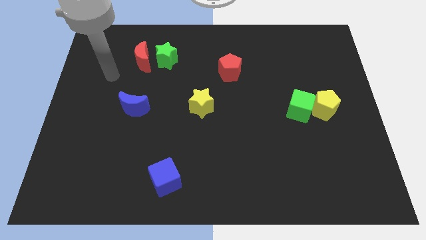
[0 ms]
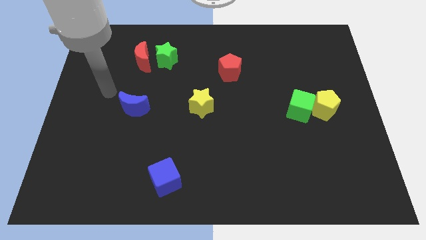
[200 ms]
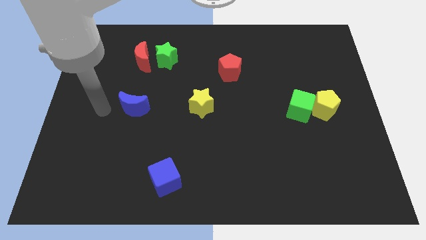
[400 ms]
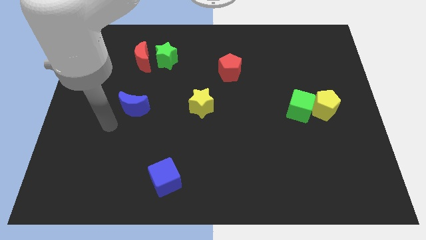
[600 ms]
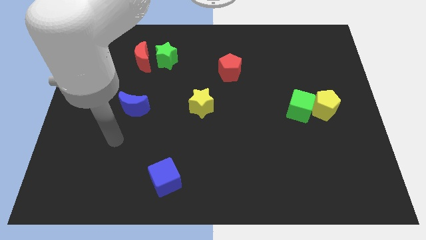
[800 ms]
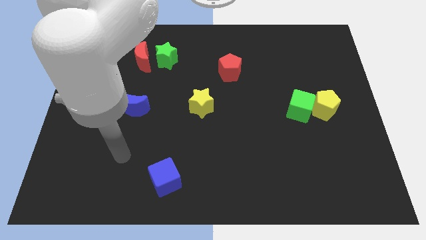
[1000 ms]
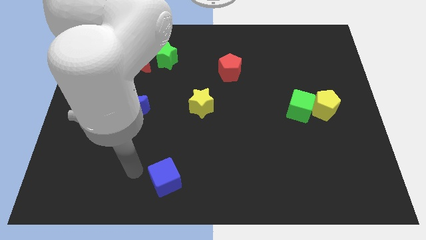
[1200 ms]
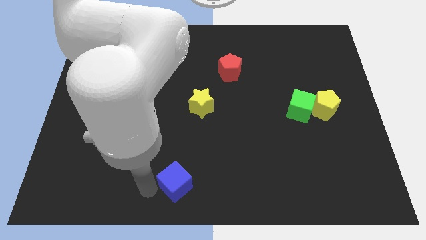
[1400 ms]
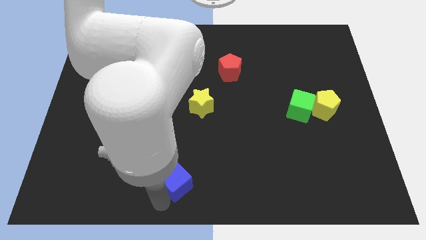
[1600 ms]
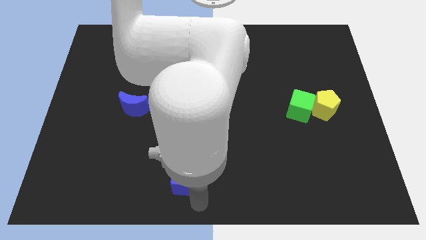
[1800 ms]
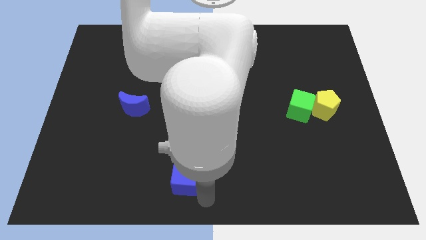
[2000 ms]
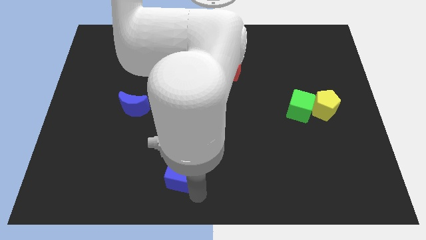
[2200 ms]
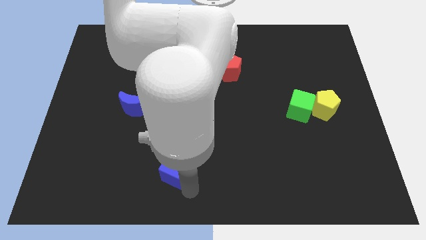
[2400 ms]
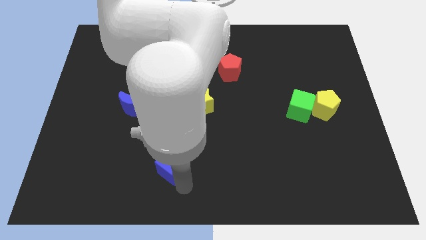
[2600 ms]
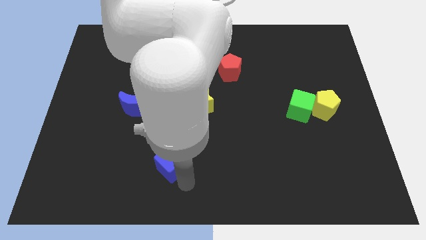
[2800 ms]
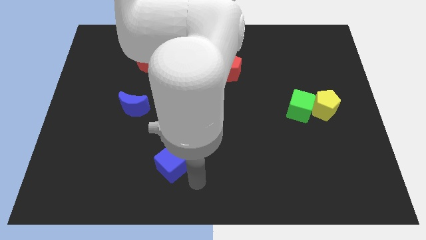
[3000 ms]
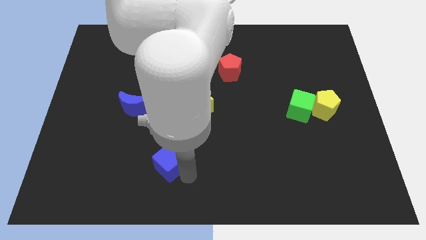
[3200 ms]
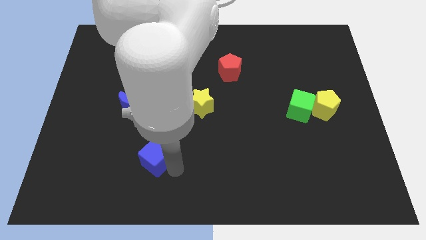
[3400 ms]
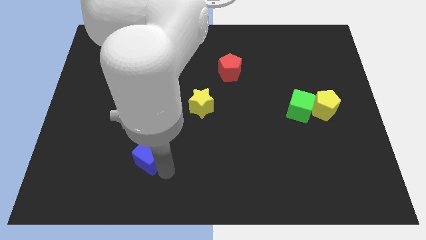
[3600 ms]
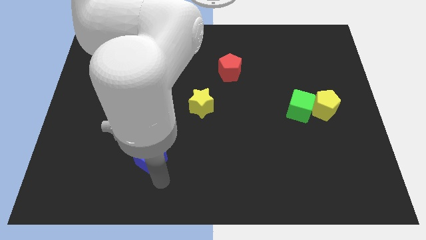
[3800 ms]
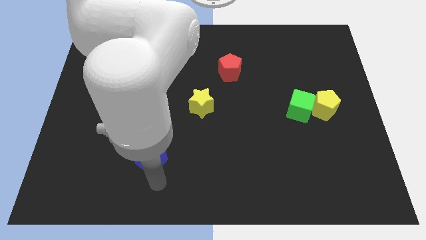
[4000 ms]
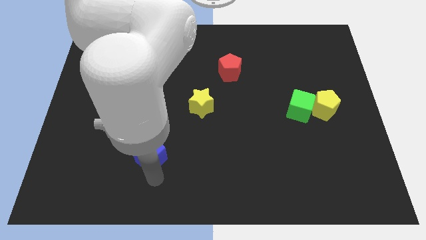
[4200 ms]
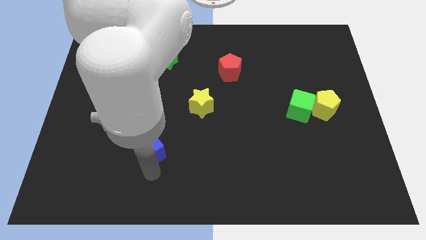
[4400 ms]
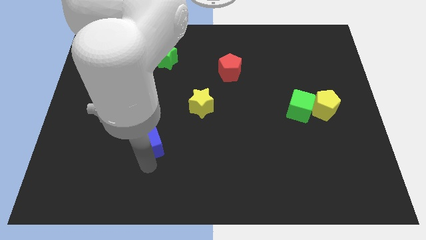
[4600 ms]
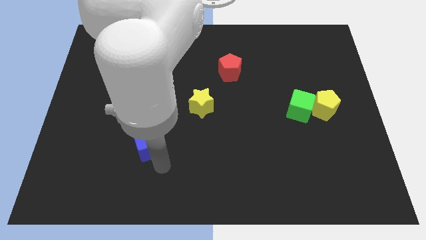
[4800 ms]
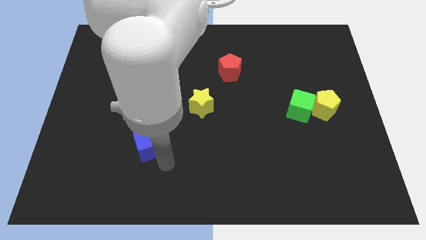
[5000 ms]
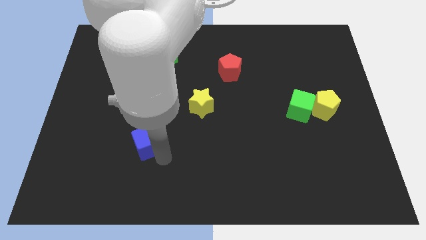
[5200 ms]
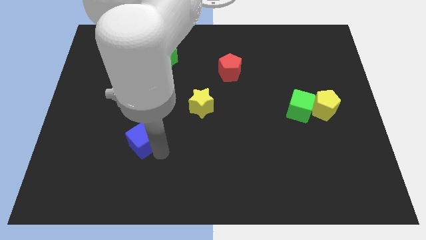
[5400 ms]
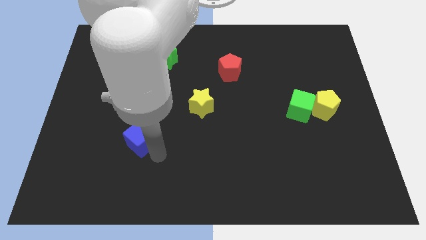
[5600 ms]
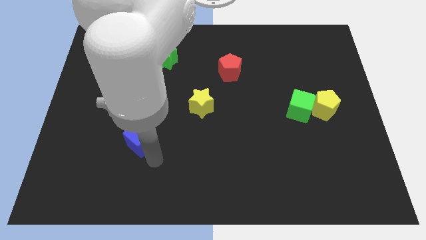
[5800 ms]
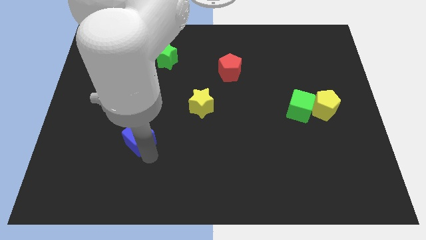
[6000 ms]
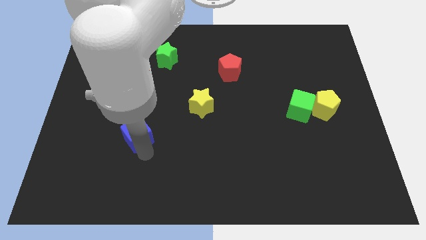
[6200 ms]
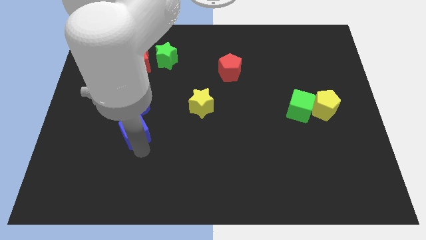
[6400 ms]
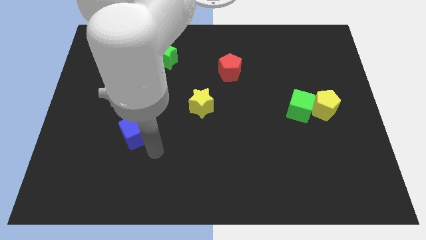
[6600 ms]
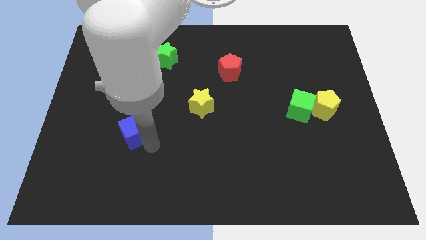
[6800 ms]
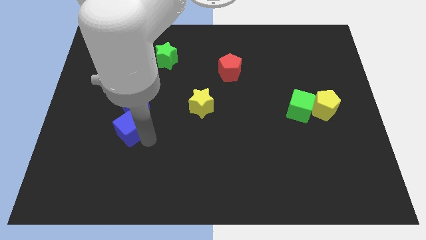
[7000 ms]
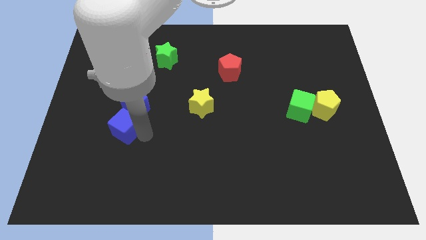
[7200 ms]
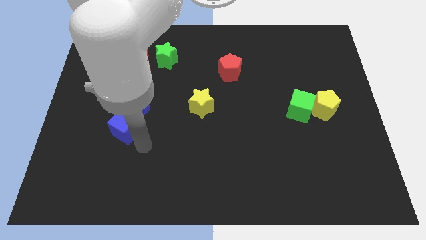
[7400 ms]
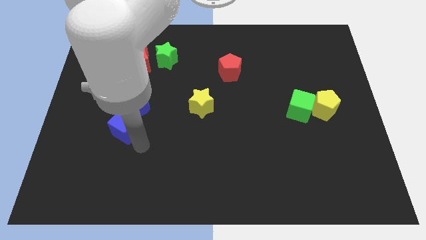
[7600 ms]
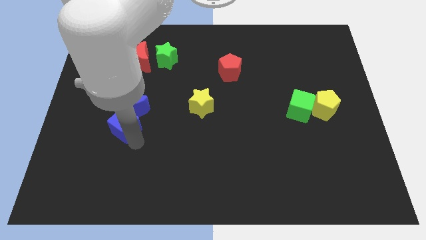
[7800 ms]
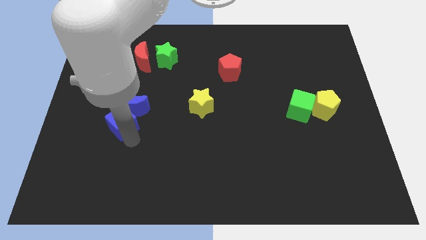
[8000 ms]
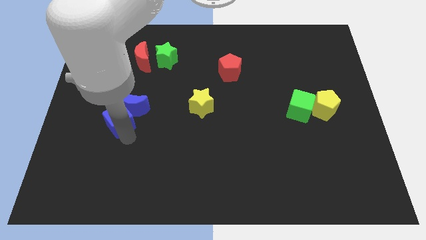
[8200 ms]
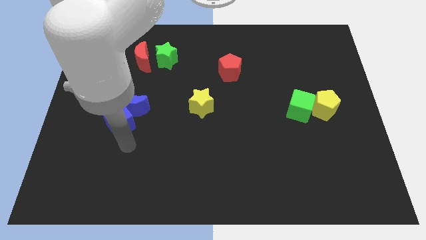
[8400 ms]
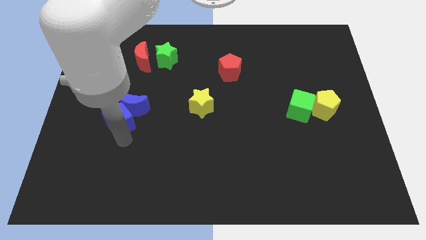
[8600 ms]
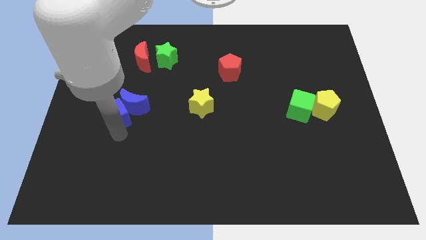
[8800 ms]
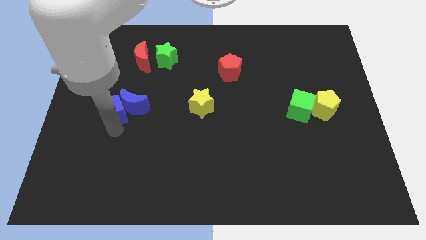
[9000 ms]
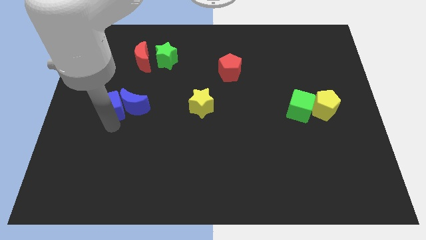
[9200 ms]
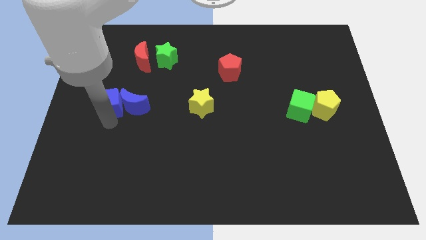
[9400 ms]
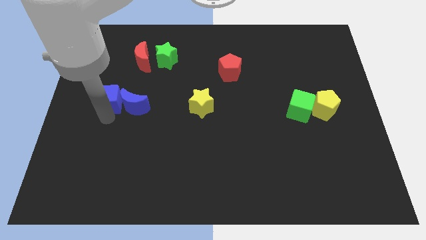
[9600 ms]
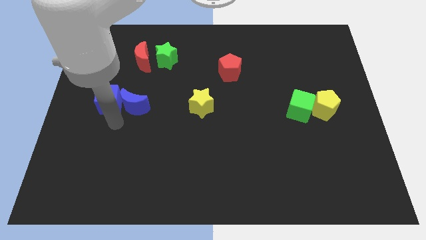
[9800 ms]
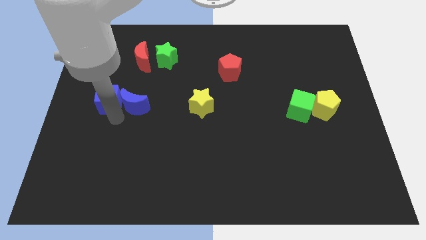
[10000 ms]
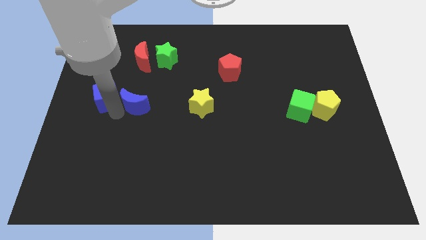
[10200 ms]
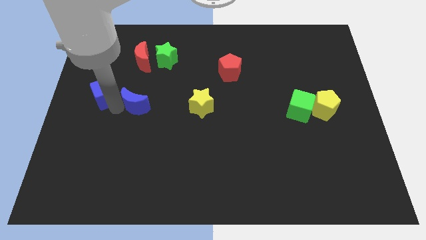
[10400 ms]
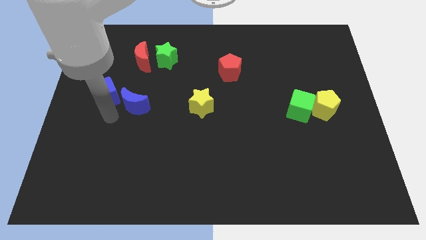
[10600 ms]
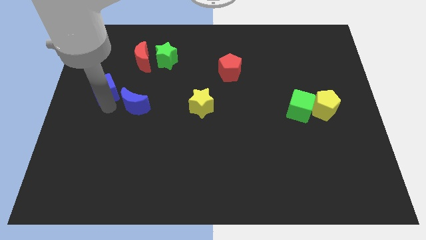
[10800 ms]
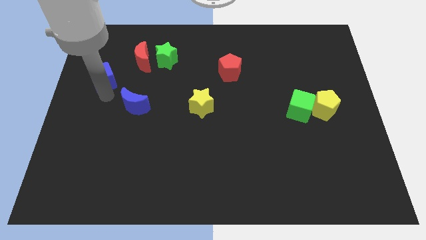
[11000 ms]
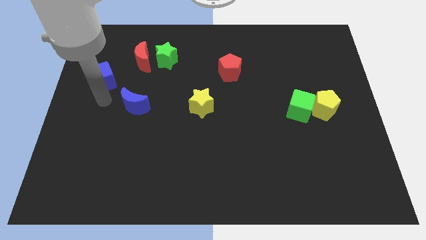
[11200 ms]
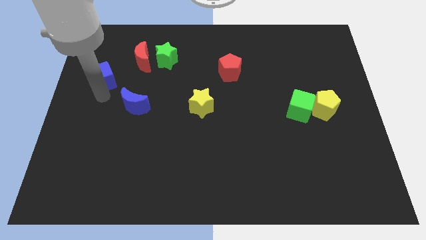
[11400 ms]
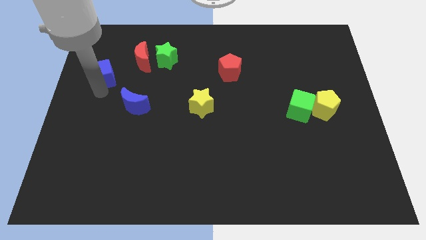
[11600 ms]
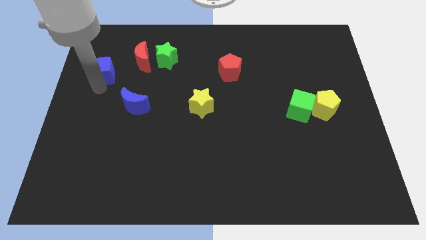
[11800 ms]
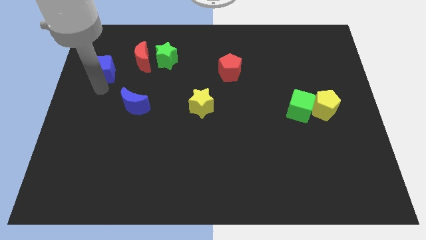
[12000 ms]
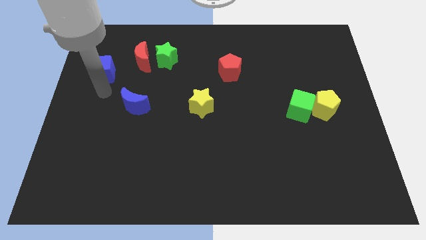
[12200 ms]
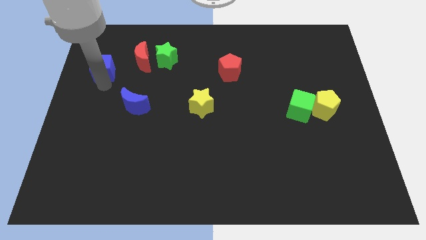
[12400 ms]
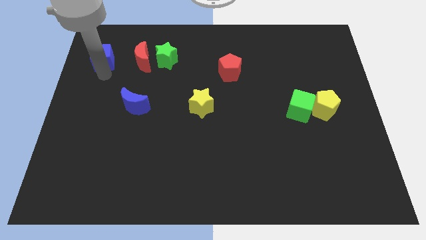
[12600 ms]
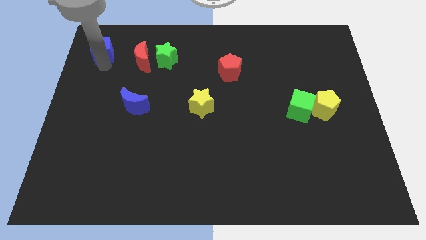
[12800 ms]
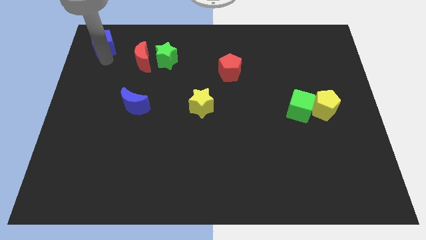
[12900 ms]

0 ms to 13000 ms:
push the blue cube to the top left of the board

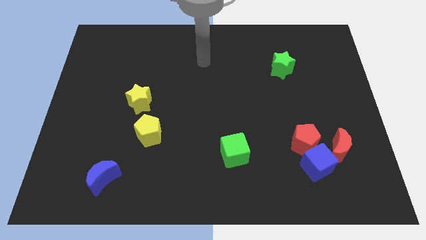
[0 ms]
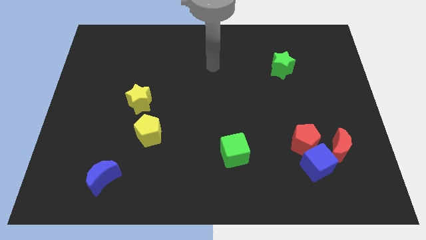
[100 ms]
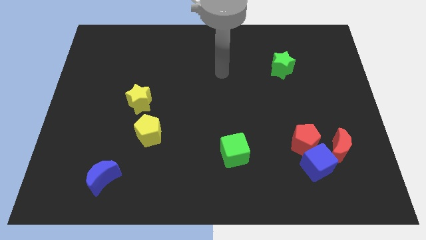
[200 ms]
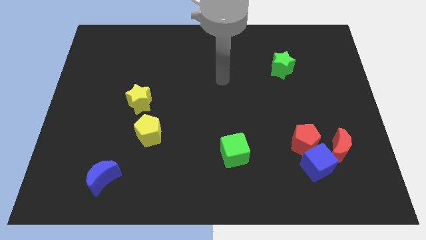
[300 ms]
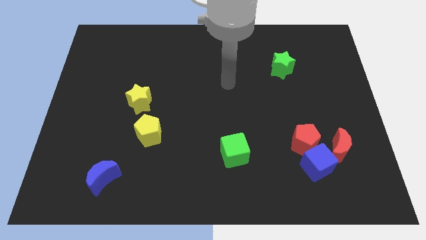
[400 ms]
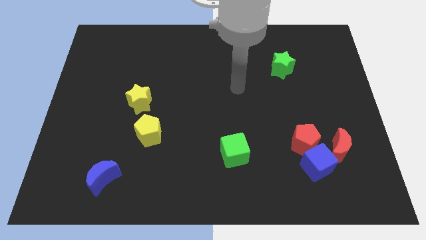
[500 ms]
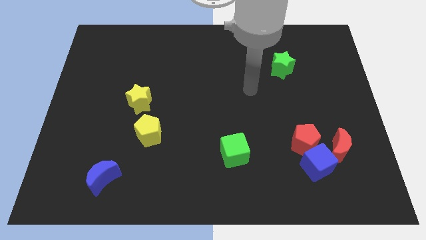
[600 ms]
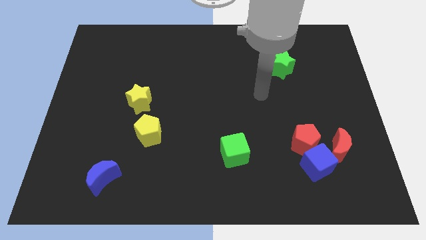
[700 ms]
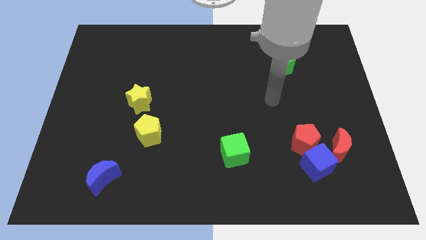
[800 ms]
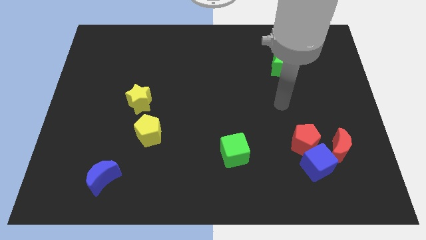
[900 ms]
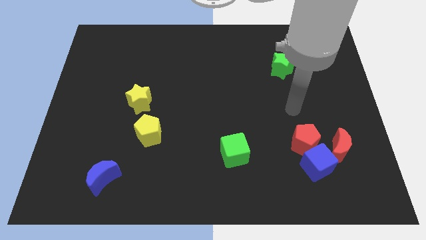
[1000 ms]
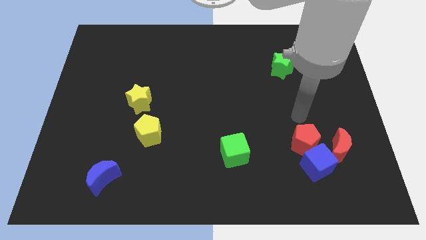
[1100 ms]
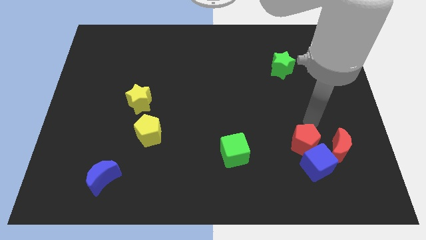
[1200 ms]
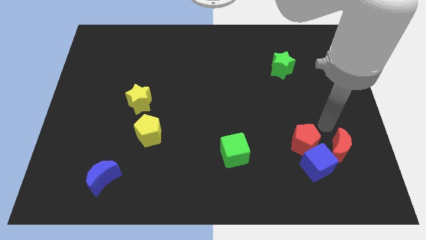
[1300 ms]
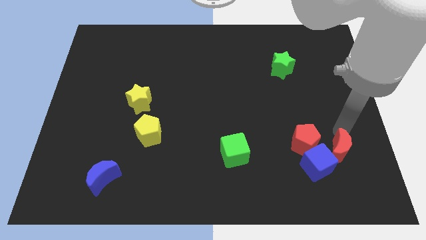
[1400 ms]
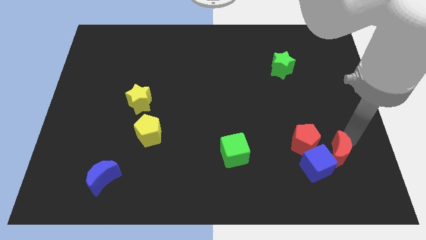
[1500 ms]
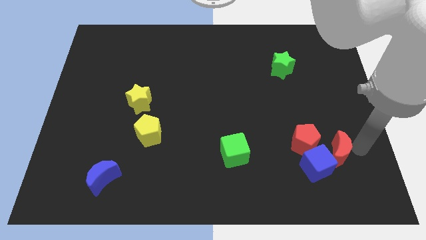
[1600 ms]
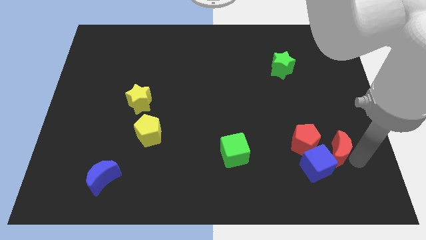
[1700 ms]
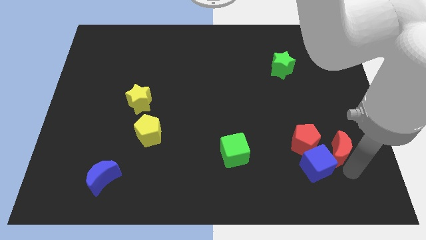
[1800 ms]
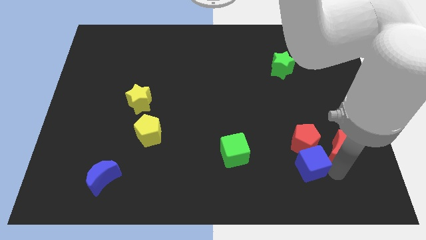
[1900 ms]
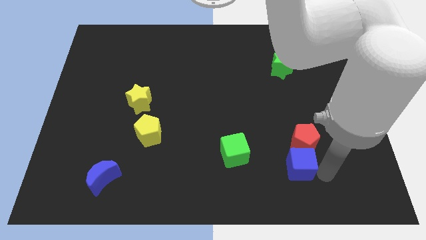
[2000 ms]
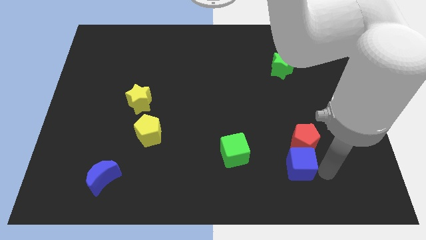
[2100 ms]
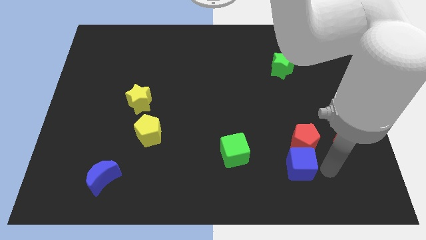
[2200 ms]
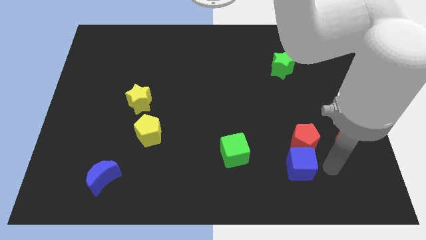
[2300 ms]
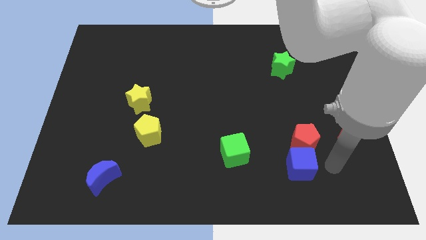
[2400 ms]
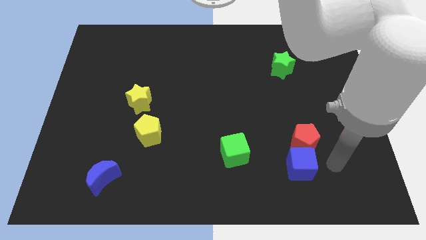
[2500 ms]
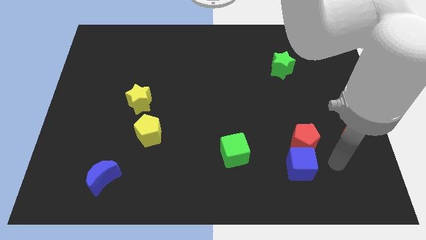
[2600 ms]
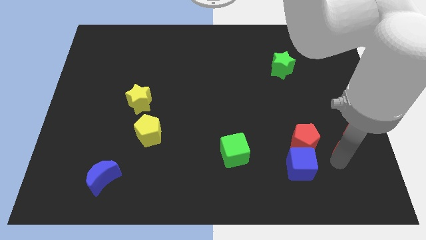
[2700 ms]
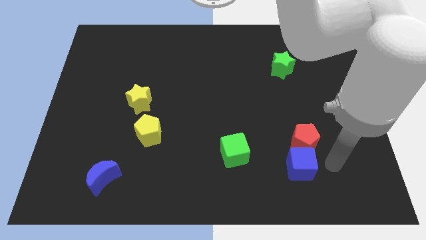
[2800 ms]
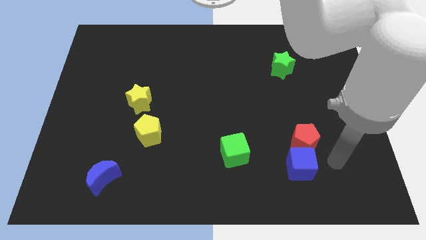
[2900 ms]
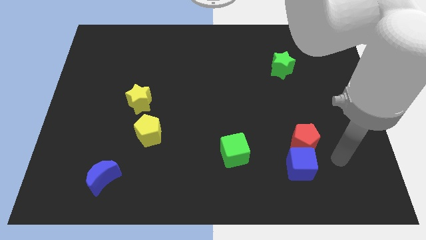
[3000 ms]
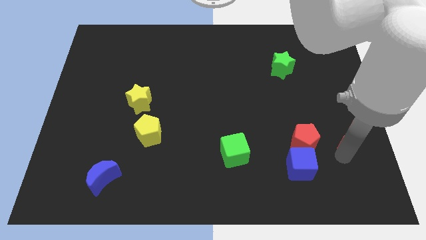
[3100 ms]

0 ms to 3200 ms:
put the red moon to the right side of the board
